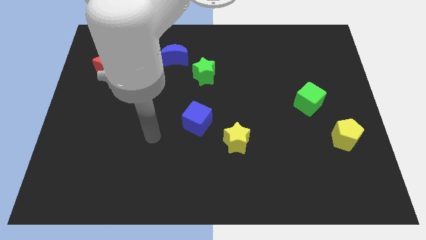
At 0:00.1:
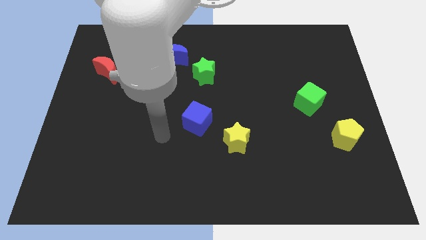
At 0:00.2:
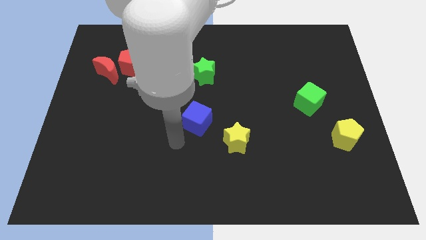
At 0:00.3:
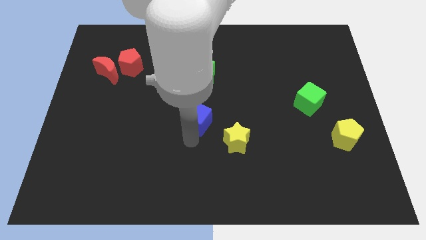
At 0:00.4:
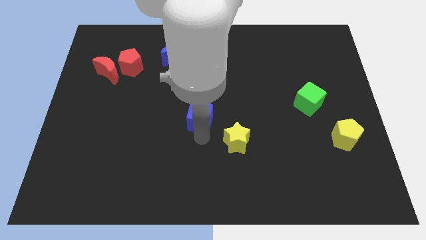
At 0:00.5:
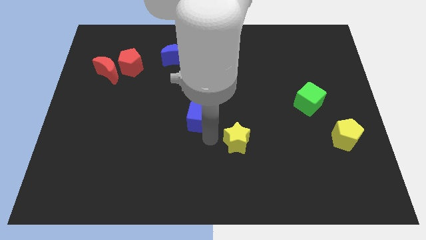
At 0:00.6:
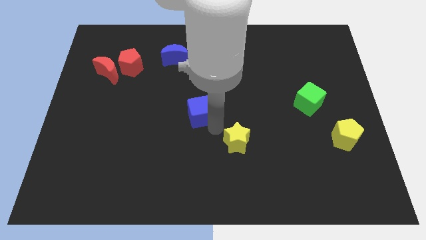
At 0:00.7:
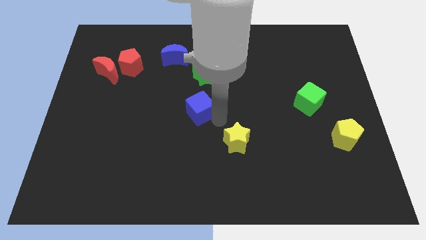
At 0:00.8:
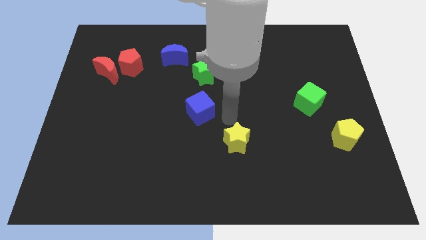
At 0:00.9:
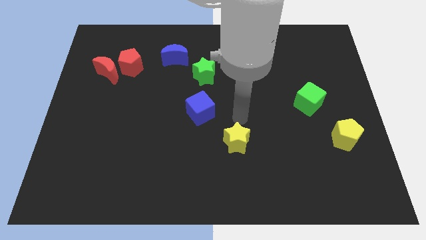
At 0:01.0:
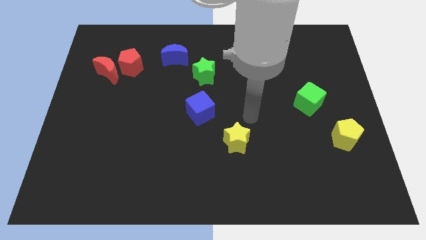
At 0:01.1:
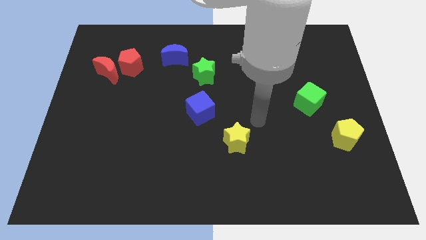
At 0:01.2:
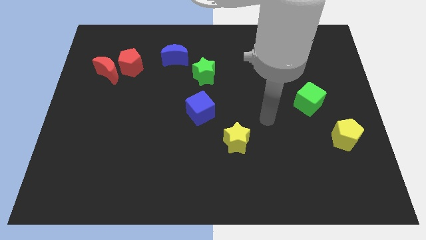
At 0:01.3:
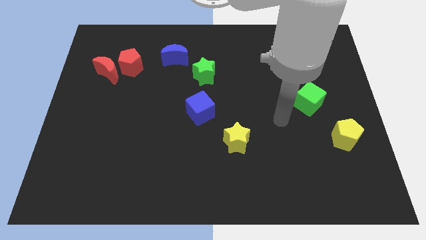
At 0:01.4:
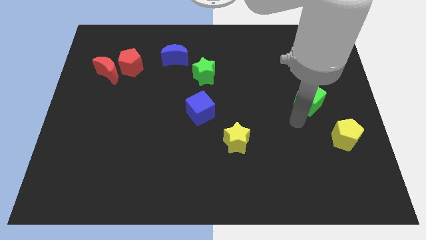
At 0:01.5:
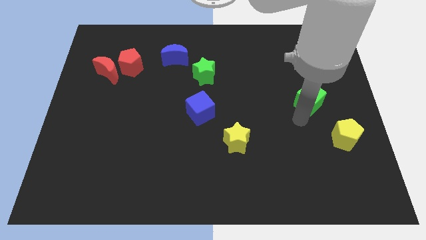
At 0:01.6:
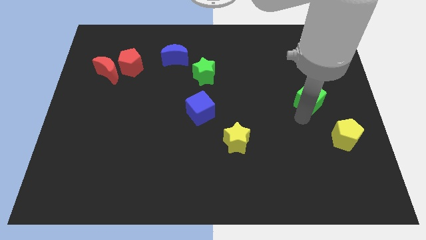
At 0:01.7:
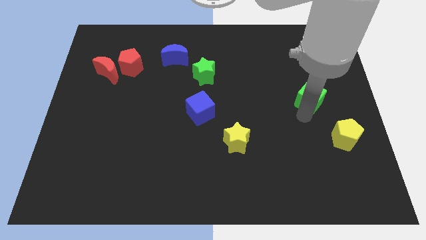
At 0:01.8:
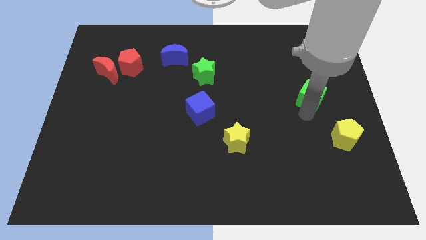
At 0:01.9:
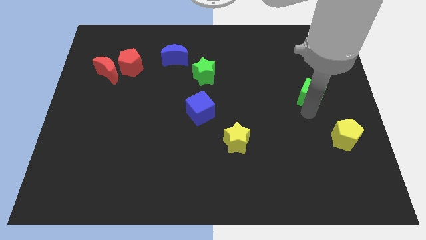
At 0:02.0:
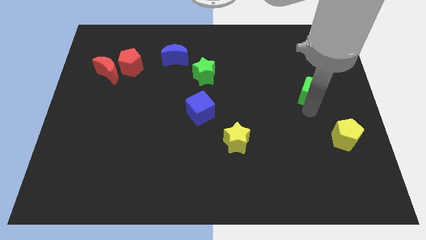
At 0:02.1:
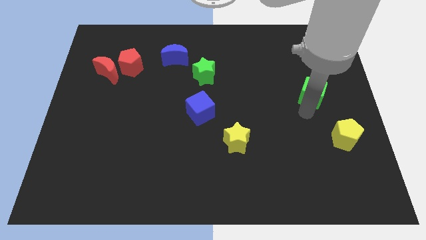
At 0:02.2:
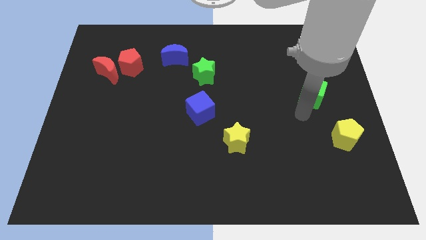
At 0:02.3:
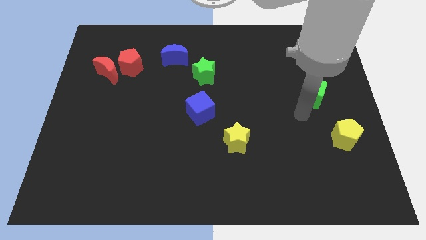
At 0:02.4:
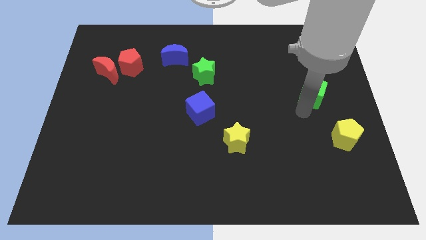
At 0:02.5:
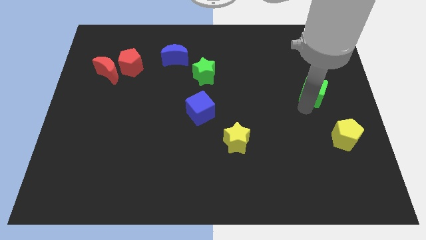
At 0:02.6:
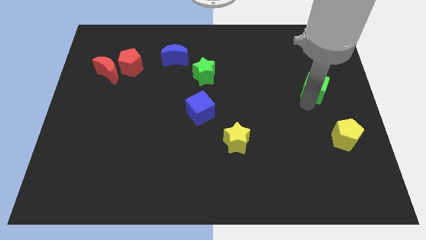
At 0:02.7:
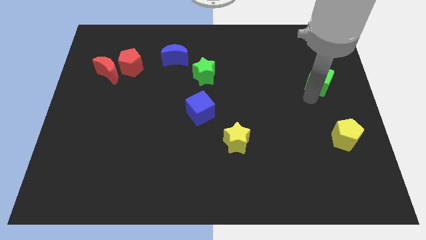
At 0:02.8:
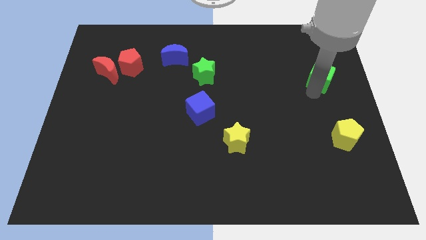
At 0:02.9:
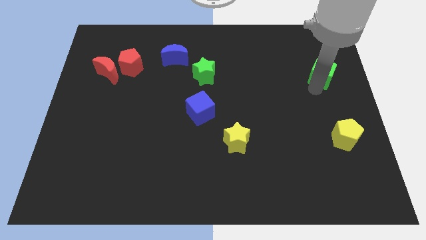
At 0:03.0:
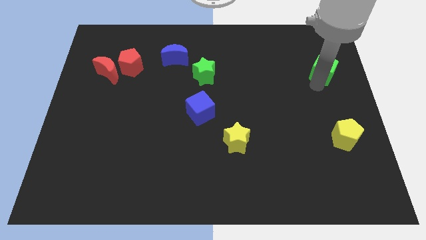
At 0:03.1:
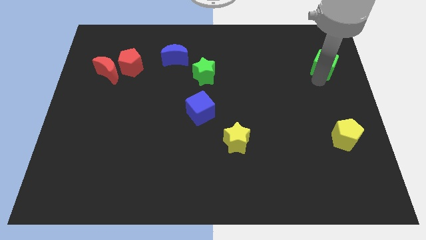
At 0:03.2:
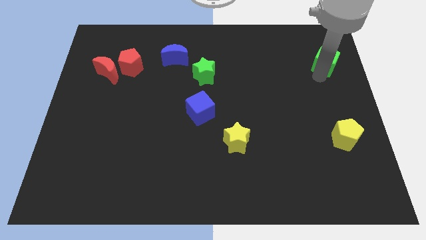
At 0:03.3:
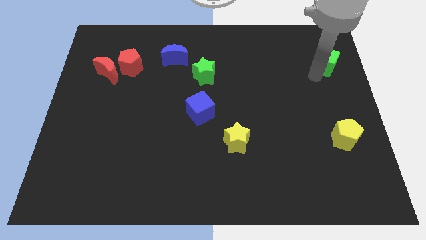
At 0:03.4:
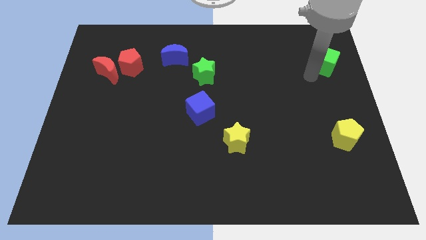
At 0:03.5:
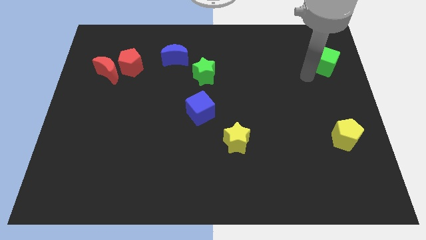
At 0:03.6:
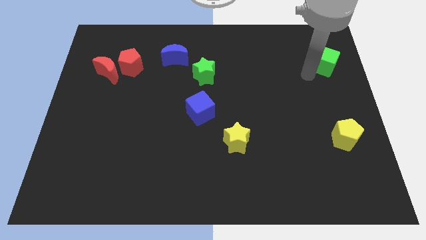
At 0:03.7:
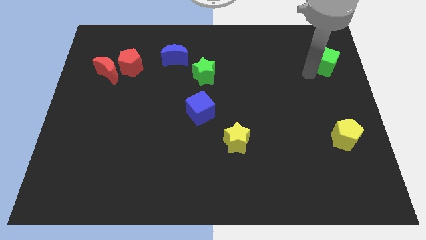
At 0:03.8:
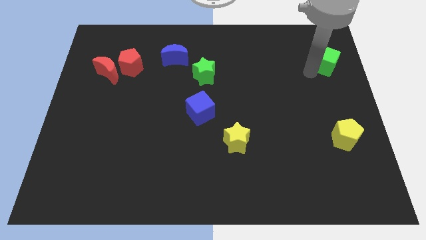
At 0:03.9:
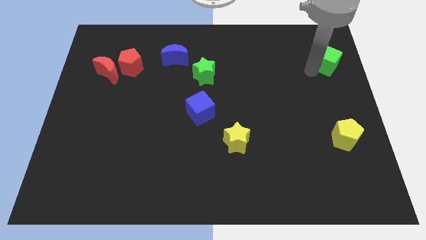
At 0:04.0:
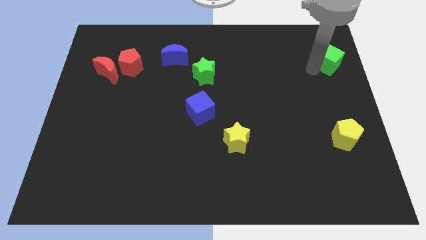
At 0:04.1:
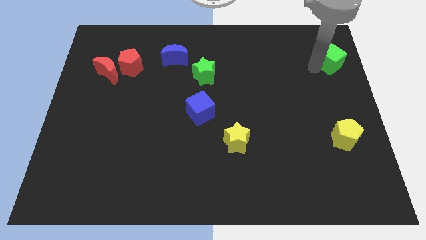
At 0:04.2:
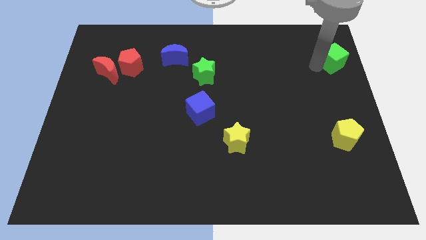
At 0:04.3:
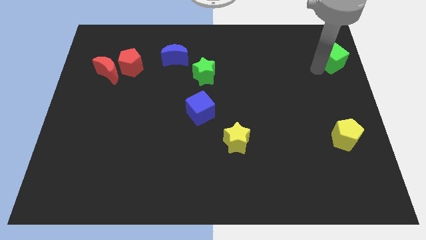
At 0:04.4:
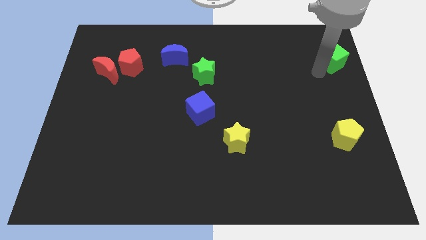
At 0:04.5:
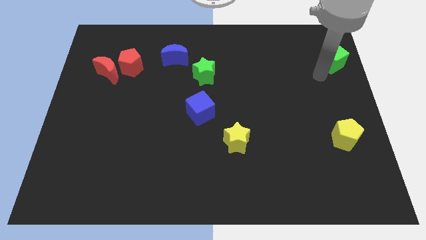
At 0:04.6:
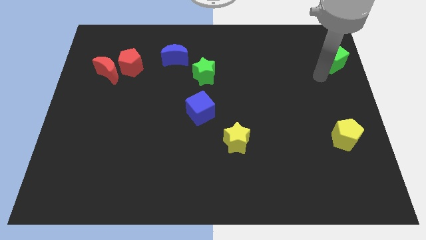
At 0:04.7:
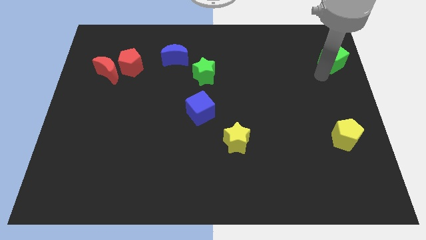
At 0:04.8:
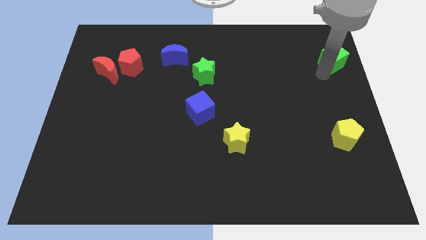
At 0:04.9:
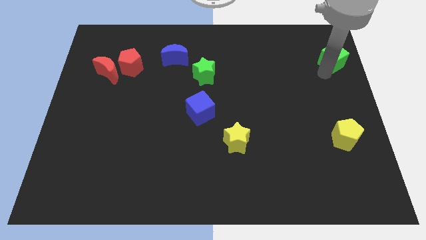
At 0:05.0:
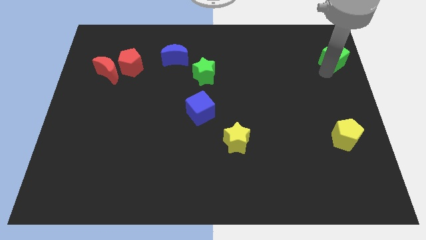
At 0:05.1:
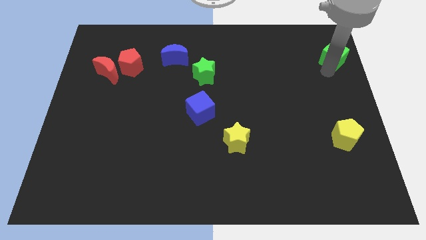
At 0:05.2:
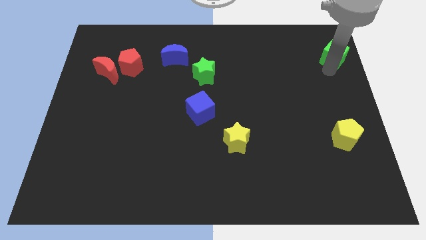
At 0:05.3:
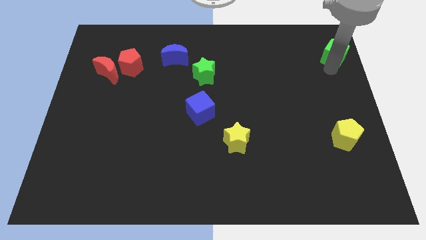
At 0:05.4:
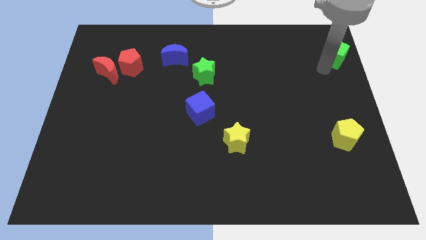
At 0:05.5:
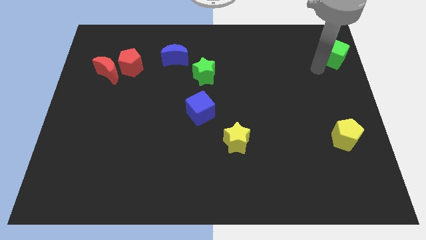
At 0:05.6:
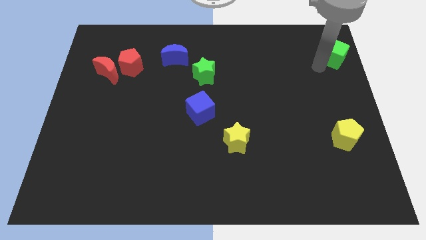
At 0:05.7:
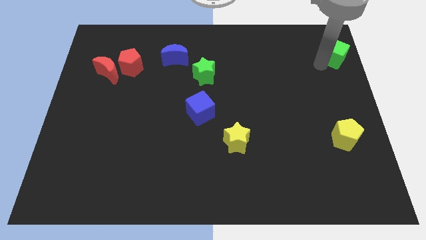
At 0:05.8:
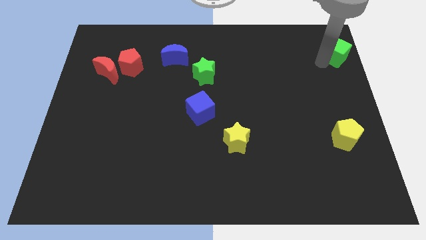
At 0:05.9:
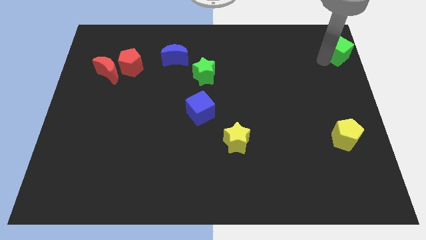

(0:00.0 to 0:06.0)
put the green cube to the top right of the board

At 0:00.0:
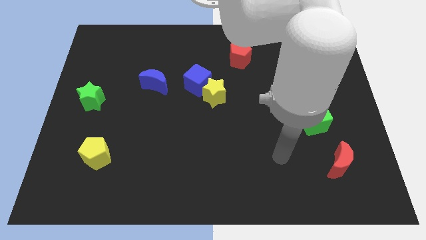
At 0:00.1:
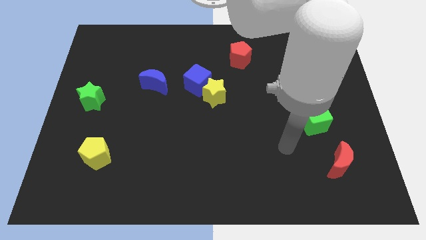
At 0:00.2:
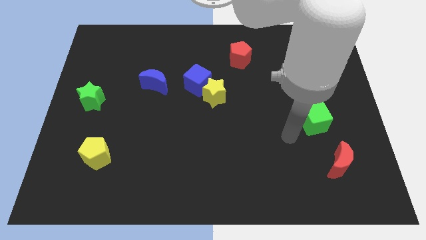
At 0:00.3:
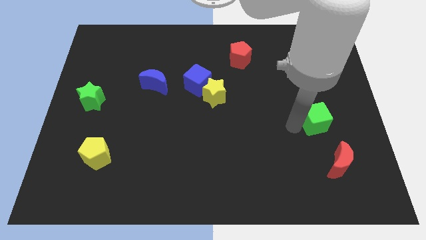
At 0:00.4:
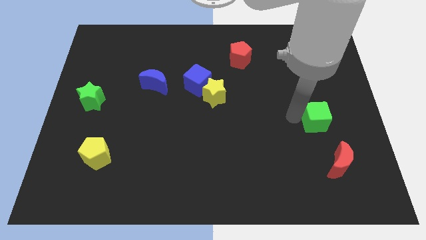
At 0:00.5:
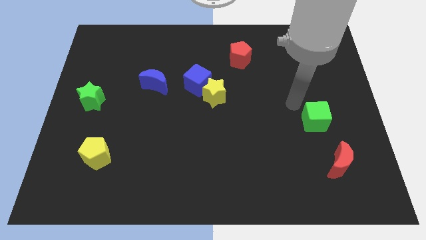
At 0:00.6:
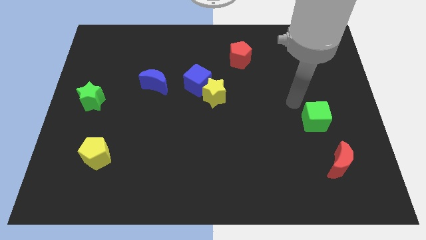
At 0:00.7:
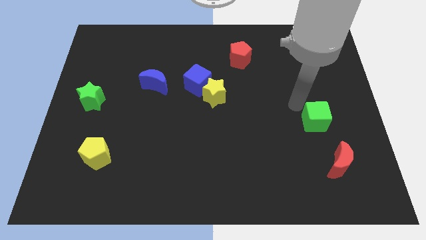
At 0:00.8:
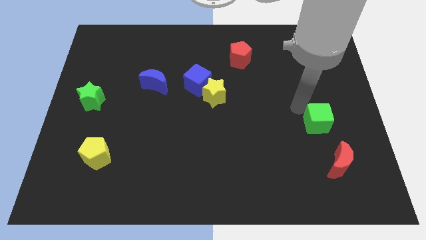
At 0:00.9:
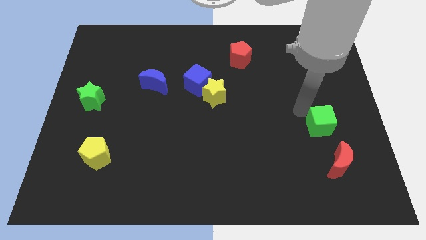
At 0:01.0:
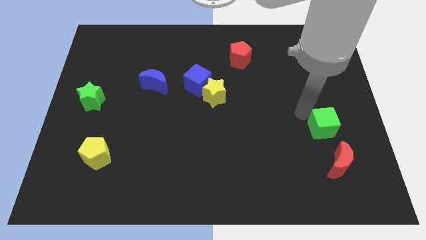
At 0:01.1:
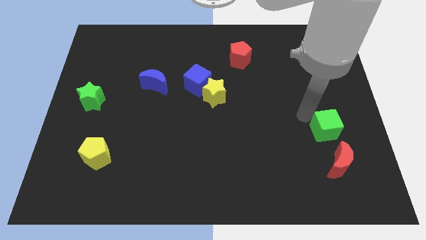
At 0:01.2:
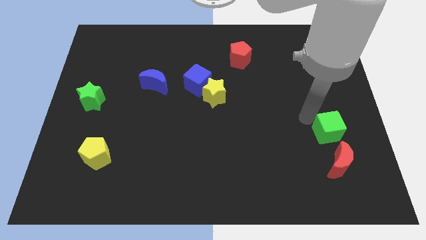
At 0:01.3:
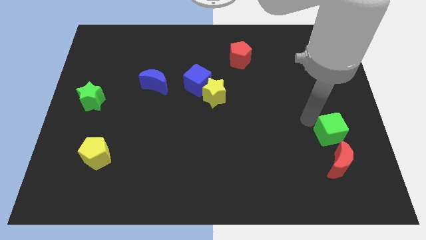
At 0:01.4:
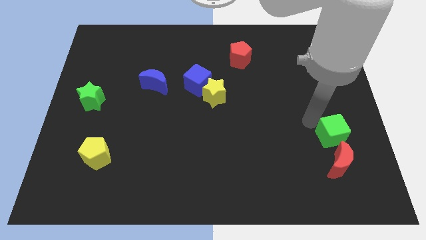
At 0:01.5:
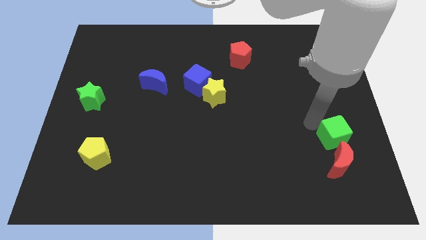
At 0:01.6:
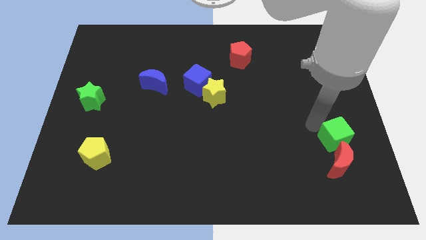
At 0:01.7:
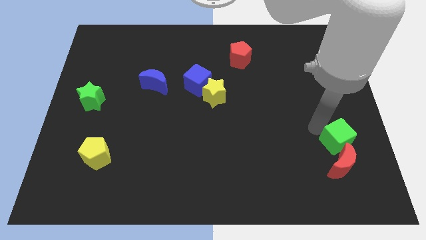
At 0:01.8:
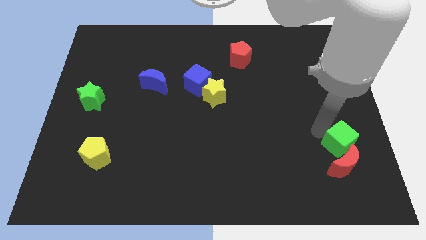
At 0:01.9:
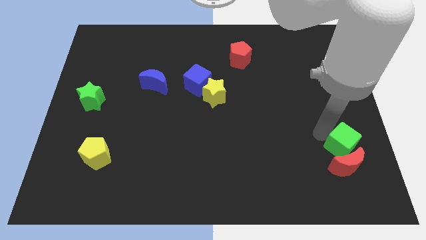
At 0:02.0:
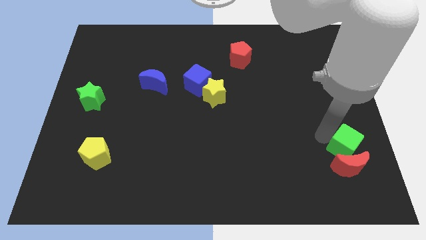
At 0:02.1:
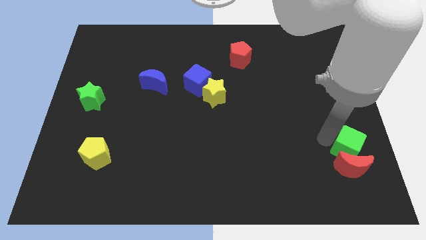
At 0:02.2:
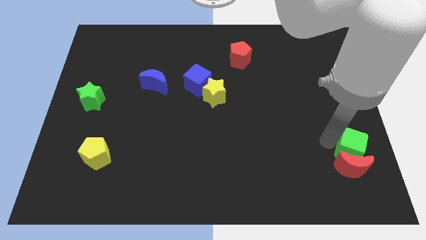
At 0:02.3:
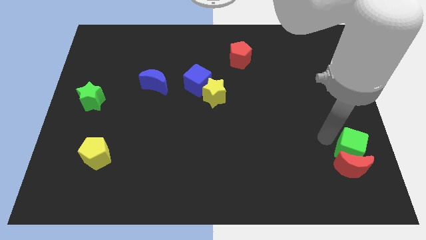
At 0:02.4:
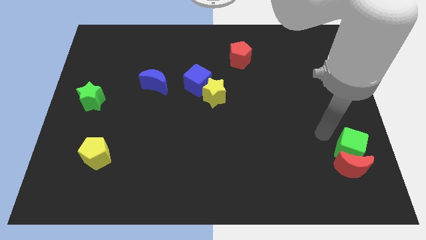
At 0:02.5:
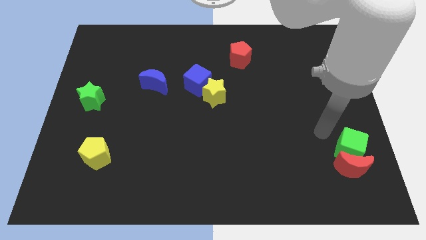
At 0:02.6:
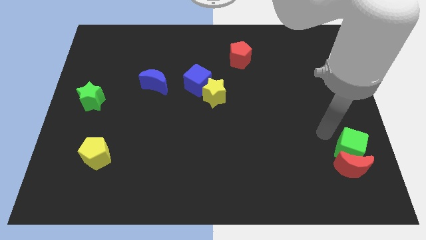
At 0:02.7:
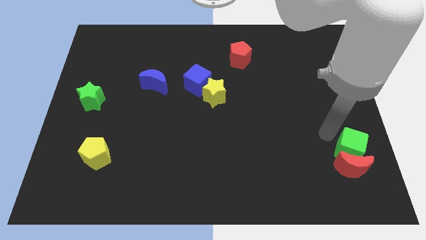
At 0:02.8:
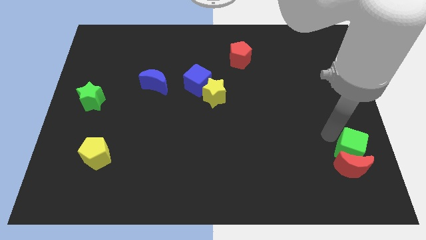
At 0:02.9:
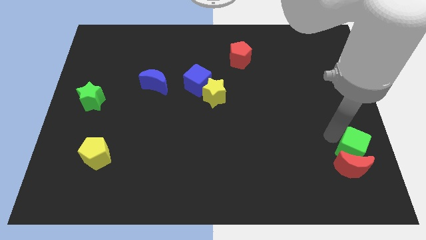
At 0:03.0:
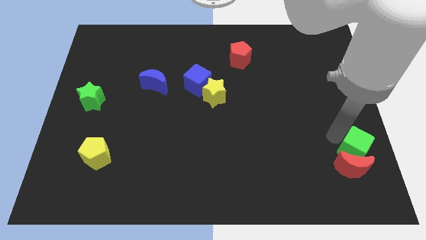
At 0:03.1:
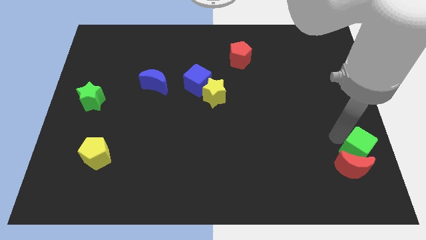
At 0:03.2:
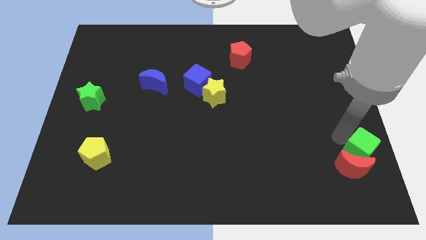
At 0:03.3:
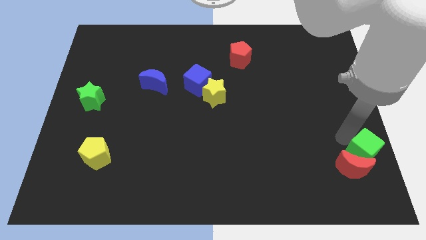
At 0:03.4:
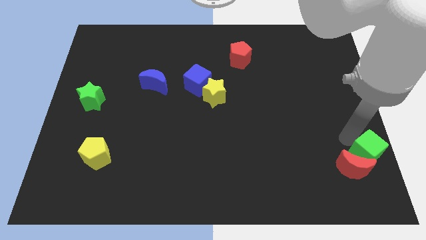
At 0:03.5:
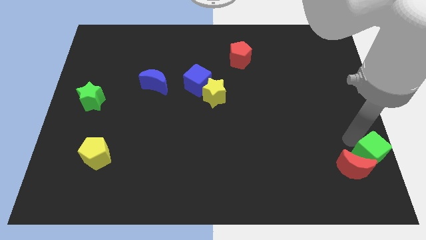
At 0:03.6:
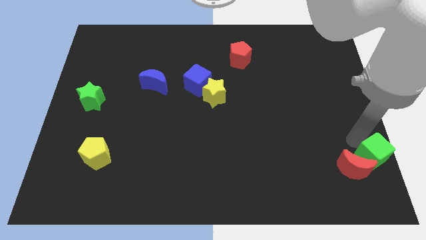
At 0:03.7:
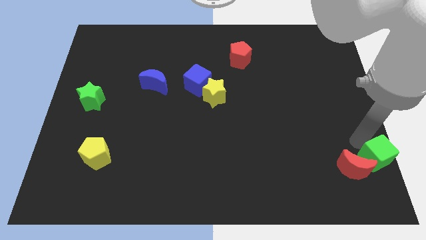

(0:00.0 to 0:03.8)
slide the green cube to the bottom right
